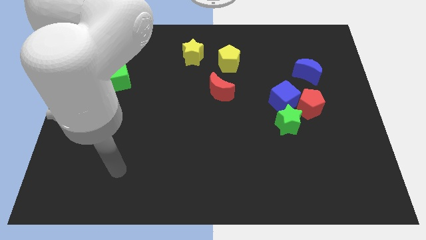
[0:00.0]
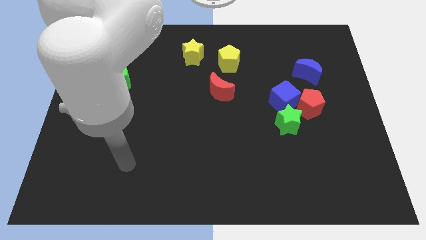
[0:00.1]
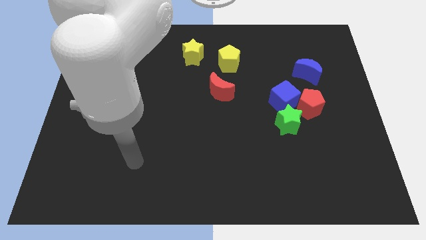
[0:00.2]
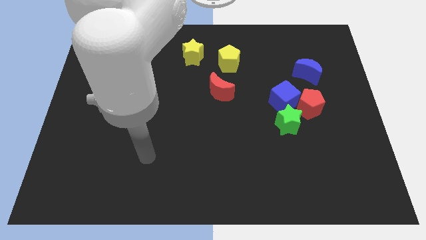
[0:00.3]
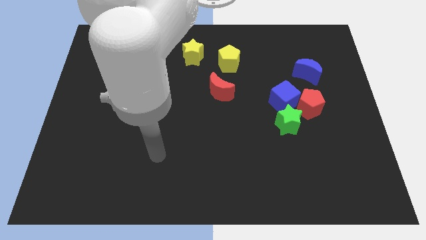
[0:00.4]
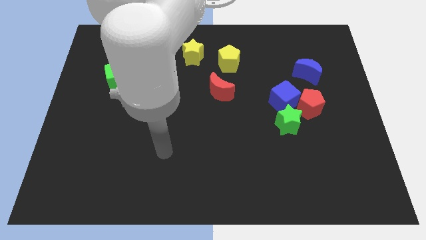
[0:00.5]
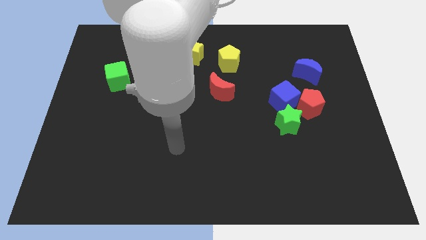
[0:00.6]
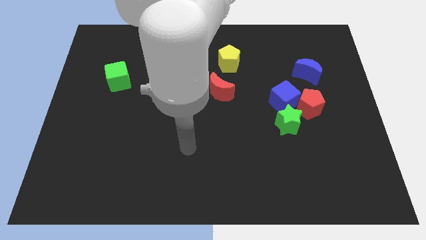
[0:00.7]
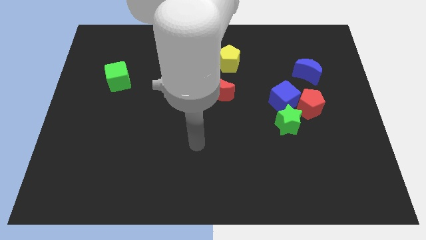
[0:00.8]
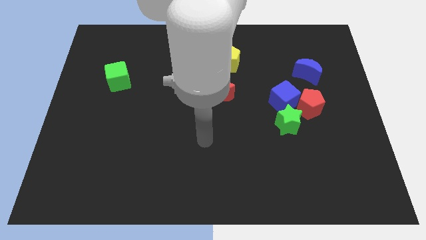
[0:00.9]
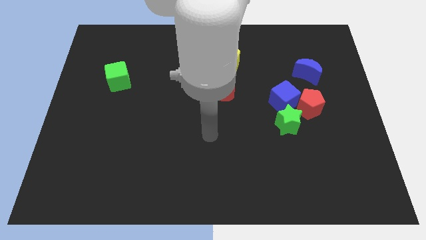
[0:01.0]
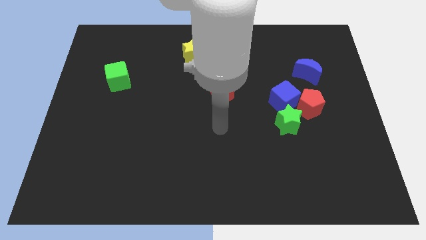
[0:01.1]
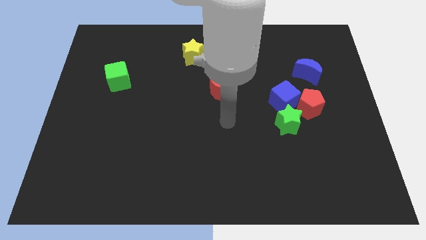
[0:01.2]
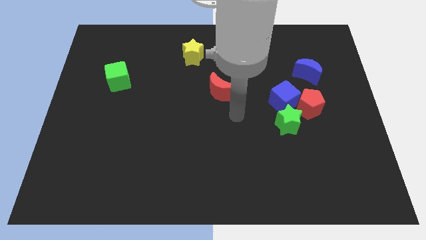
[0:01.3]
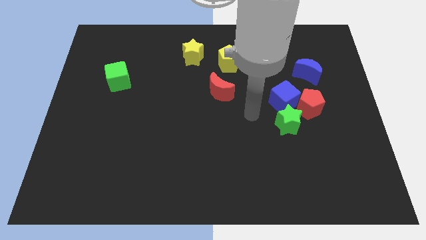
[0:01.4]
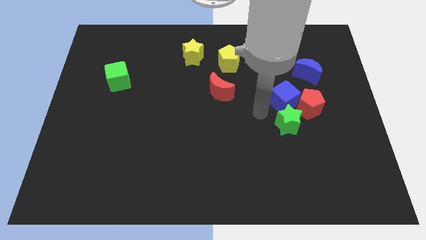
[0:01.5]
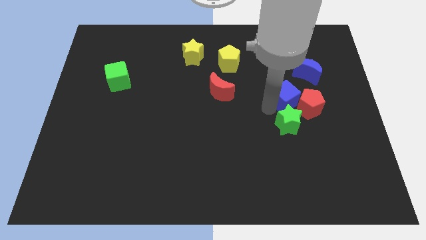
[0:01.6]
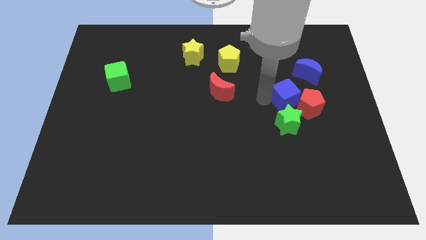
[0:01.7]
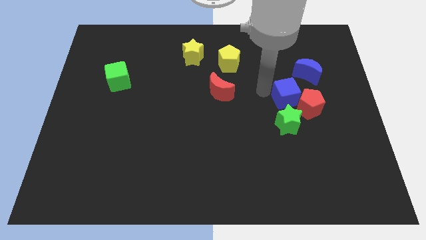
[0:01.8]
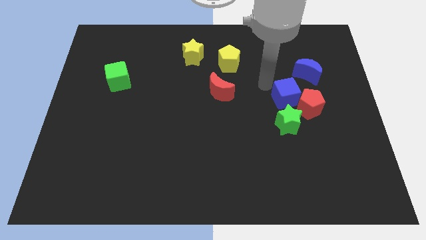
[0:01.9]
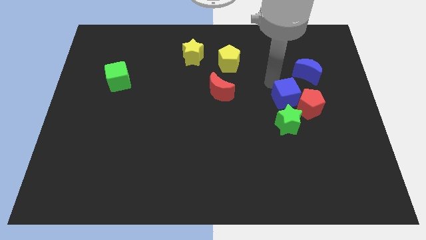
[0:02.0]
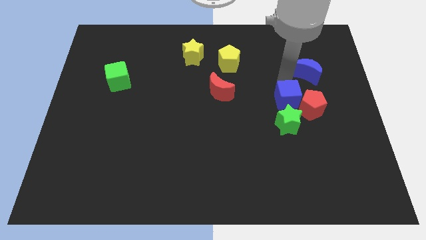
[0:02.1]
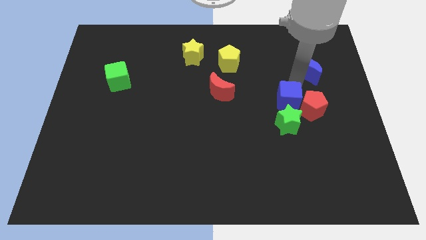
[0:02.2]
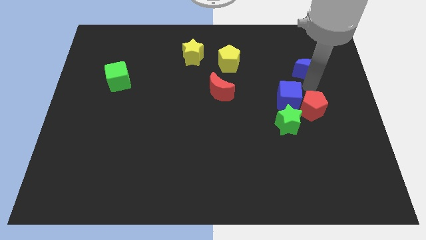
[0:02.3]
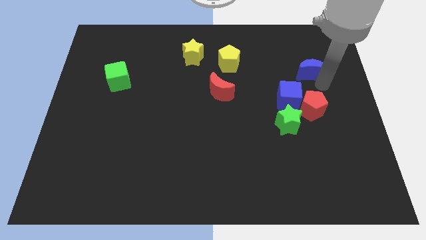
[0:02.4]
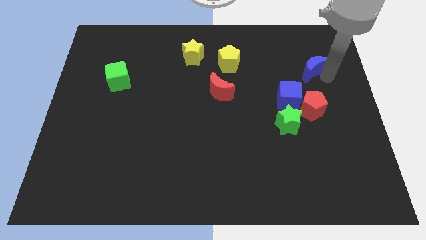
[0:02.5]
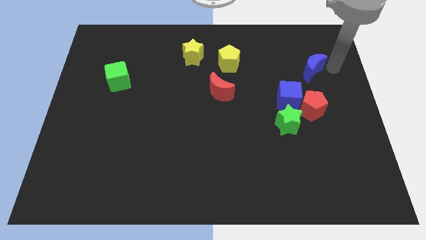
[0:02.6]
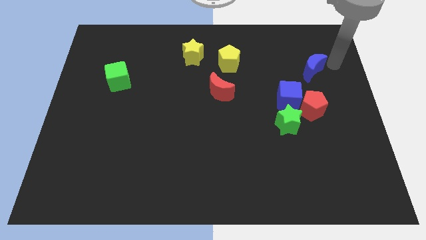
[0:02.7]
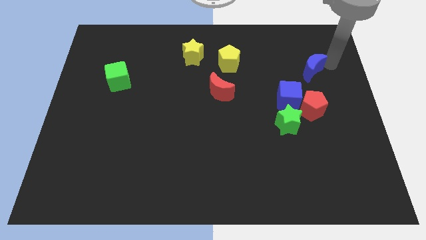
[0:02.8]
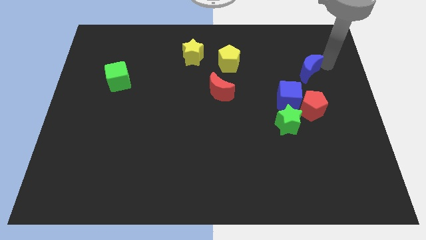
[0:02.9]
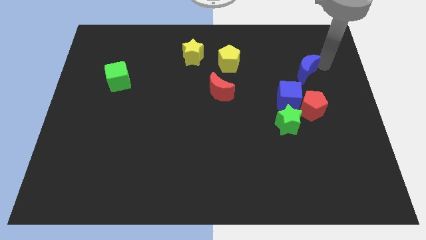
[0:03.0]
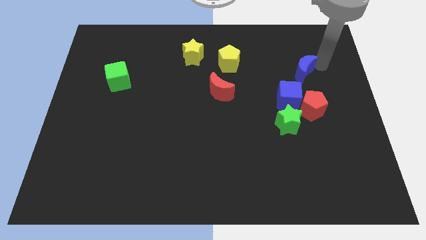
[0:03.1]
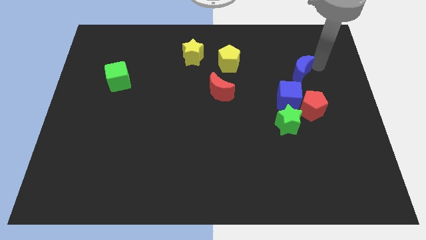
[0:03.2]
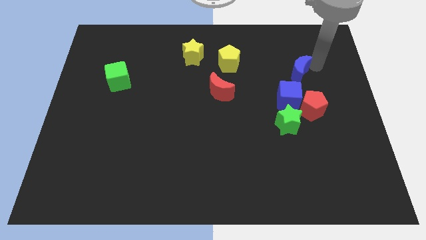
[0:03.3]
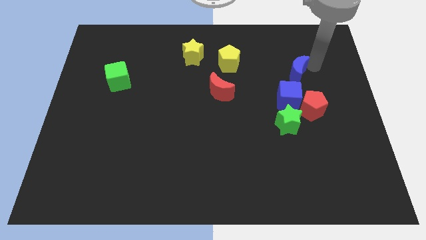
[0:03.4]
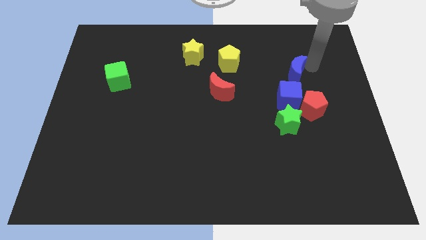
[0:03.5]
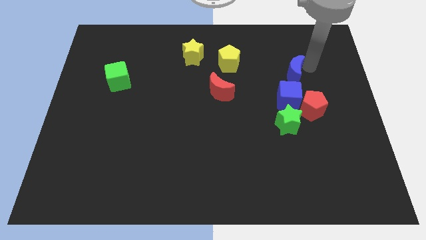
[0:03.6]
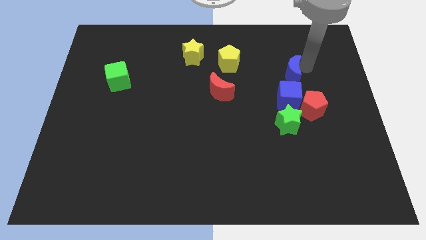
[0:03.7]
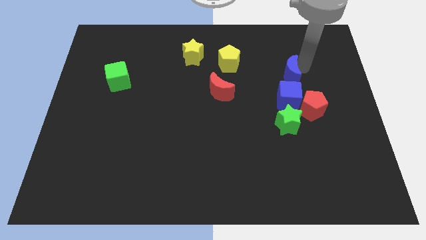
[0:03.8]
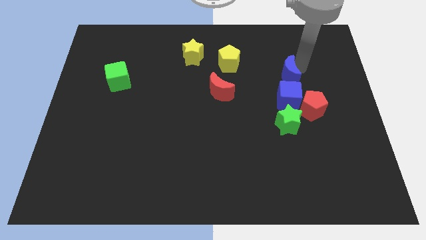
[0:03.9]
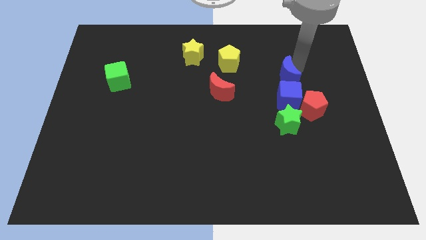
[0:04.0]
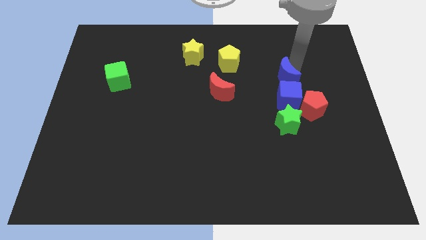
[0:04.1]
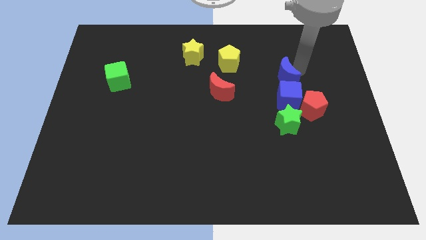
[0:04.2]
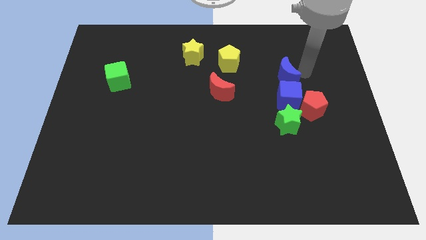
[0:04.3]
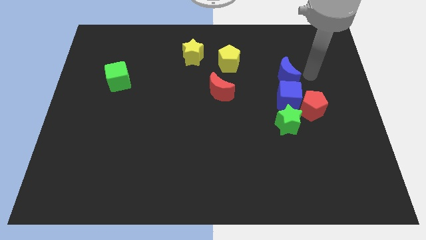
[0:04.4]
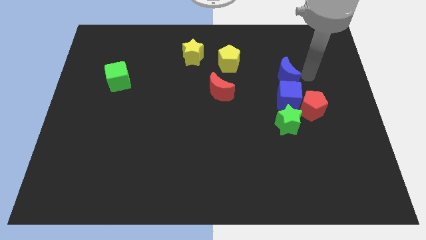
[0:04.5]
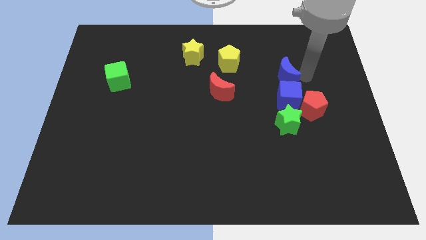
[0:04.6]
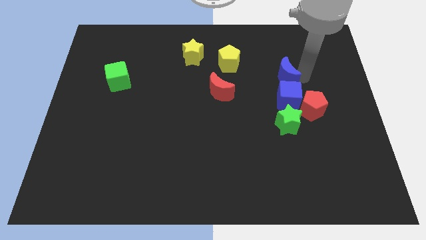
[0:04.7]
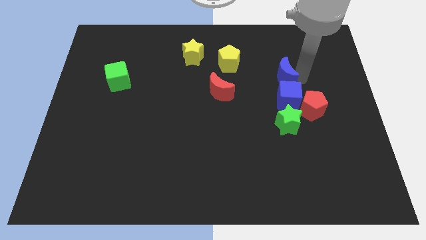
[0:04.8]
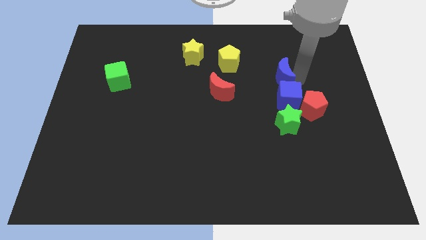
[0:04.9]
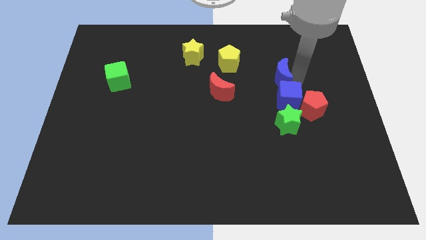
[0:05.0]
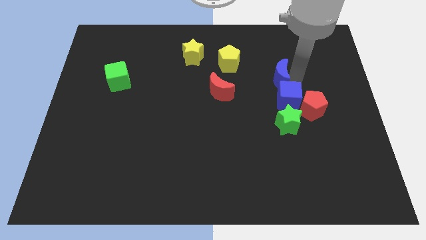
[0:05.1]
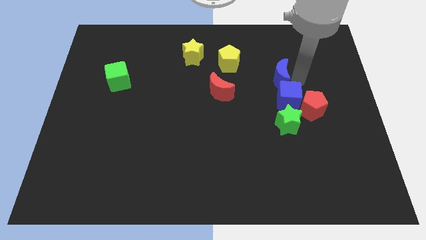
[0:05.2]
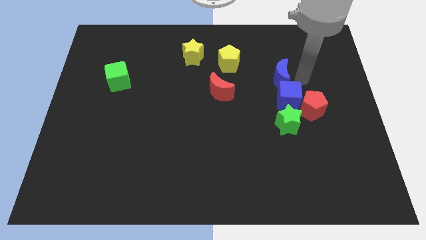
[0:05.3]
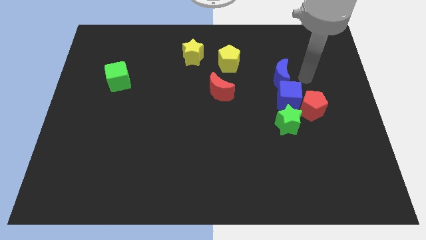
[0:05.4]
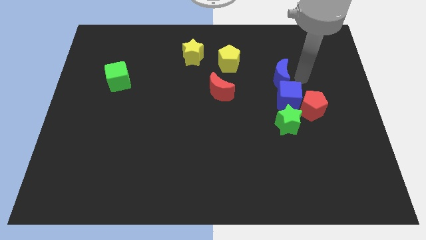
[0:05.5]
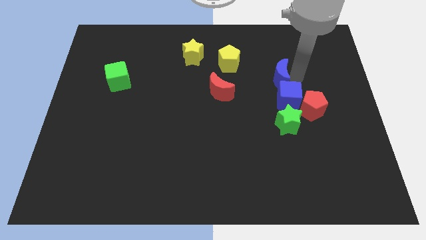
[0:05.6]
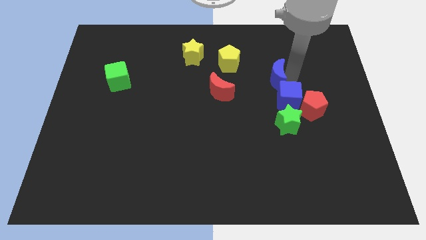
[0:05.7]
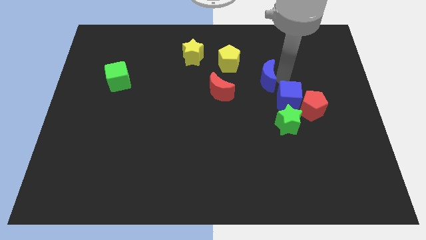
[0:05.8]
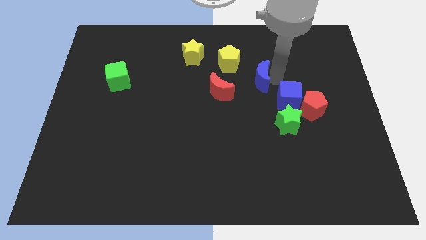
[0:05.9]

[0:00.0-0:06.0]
push the blue moon diagonally up and to the right of the red moon

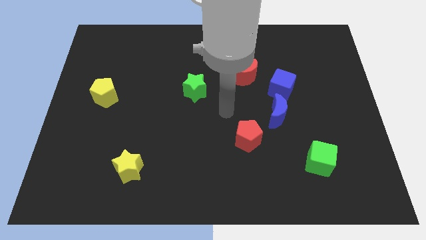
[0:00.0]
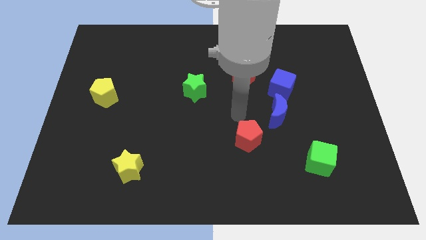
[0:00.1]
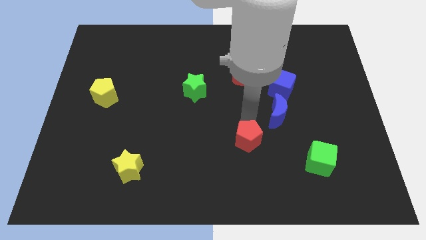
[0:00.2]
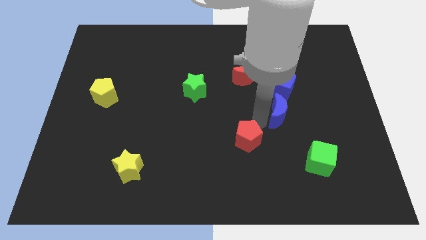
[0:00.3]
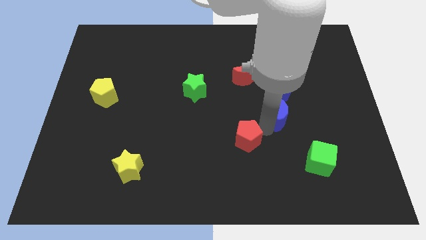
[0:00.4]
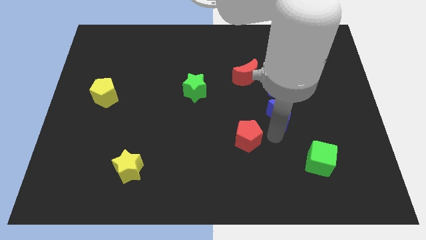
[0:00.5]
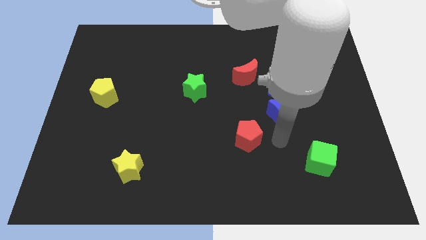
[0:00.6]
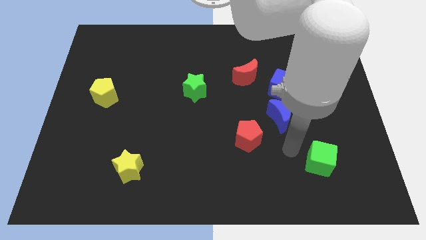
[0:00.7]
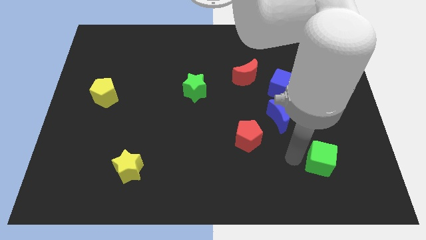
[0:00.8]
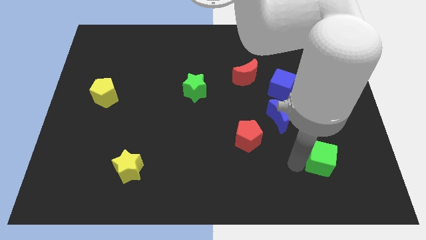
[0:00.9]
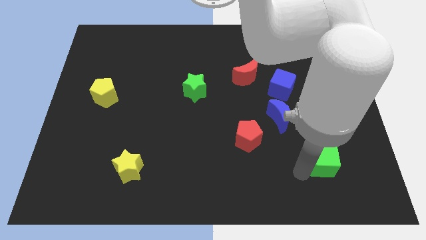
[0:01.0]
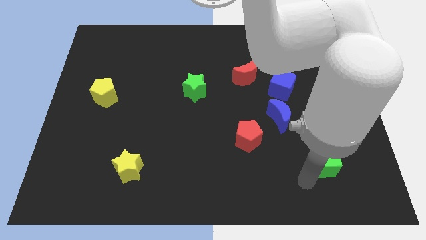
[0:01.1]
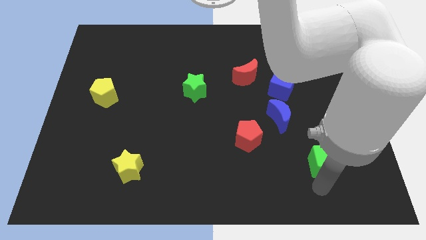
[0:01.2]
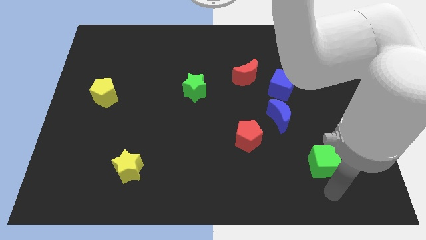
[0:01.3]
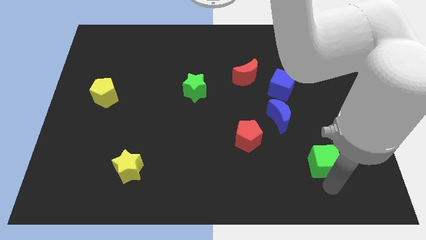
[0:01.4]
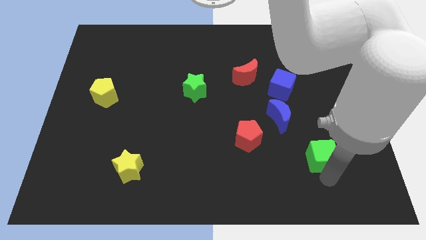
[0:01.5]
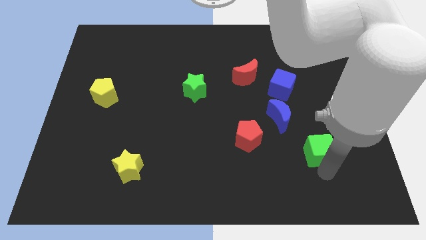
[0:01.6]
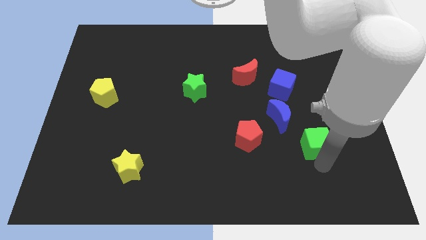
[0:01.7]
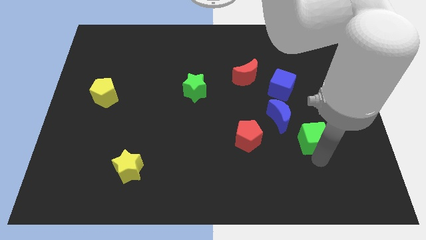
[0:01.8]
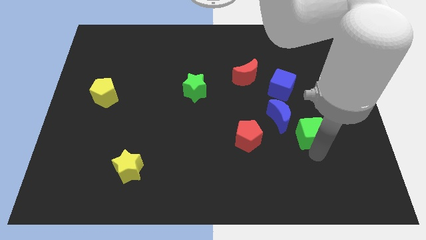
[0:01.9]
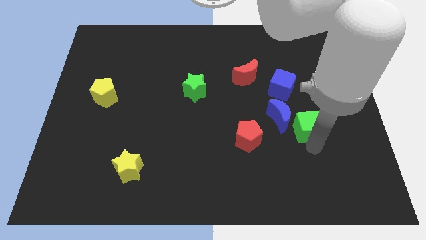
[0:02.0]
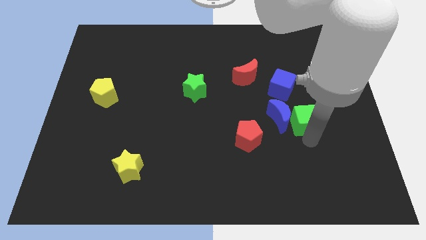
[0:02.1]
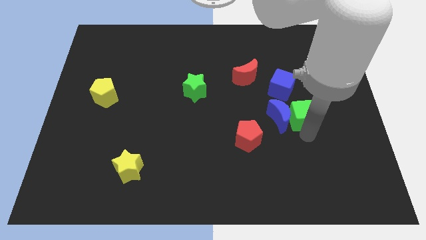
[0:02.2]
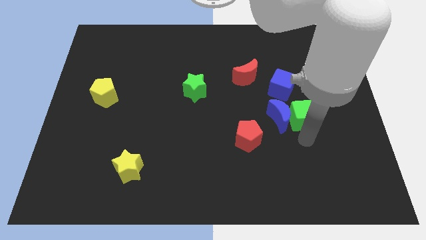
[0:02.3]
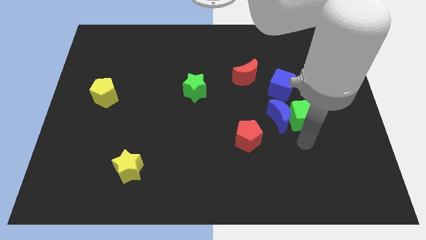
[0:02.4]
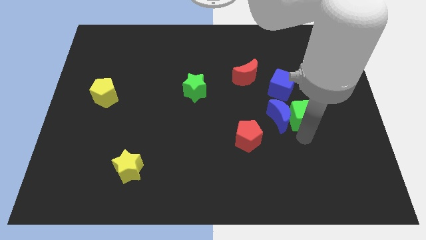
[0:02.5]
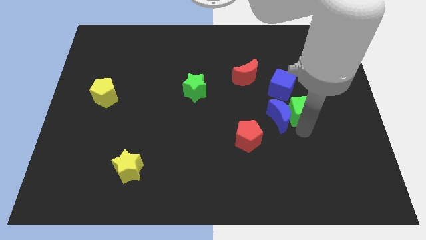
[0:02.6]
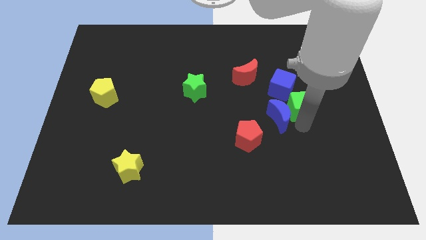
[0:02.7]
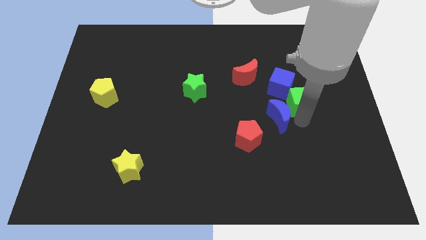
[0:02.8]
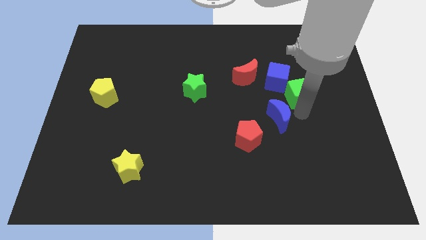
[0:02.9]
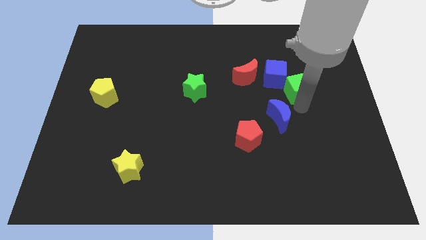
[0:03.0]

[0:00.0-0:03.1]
push the green cube right of the red moon
